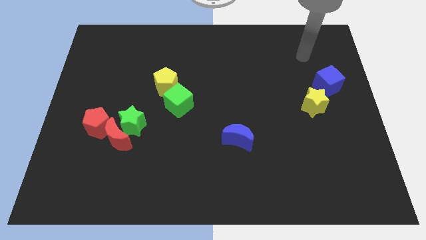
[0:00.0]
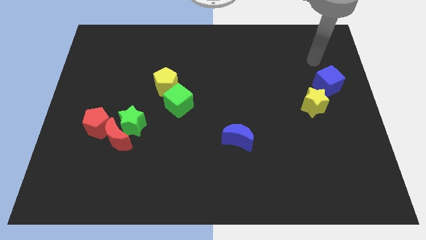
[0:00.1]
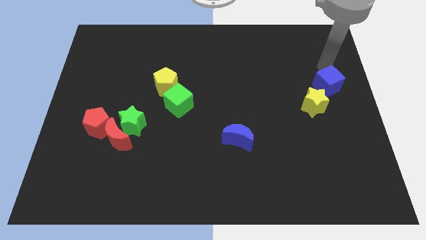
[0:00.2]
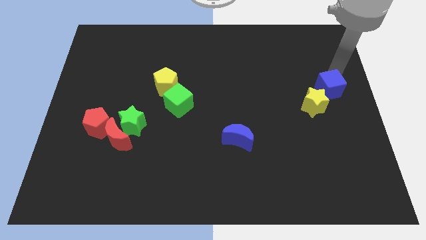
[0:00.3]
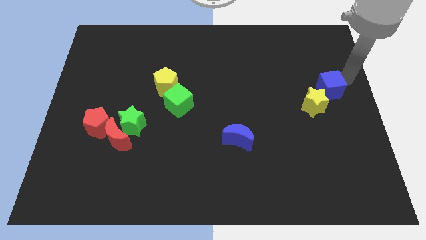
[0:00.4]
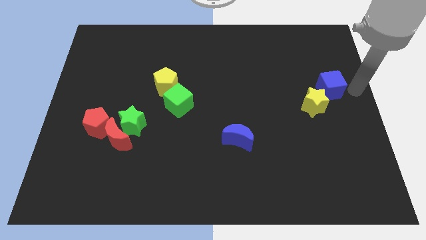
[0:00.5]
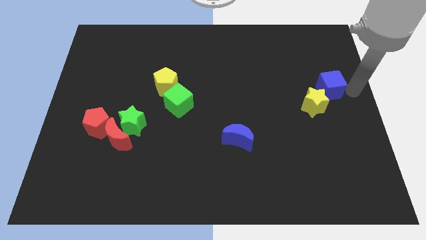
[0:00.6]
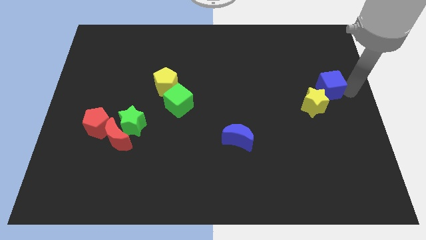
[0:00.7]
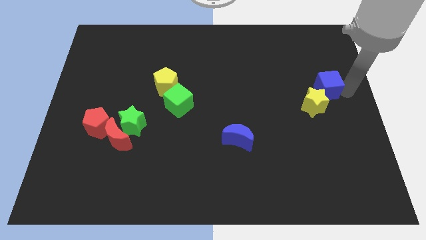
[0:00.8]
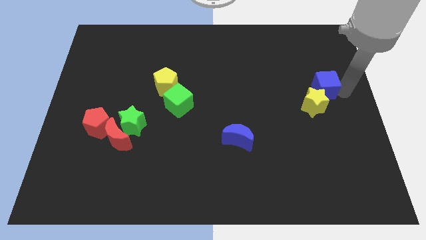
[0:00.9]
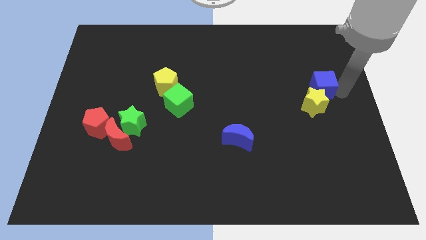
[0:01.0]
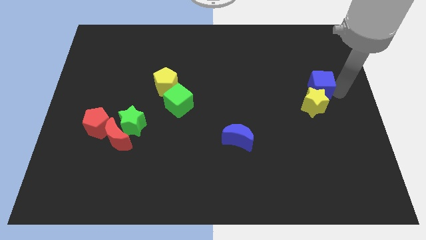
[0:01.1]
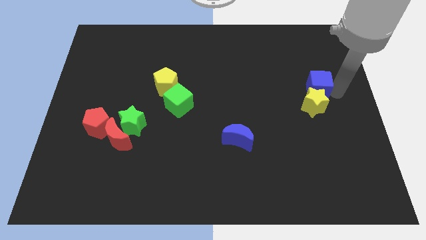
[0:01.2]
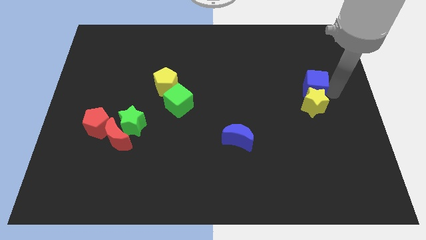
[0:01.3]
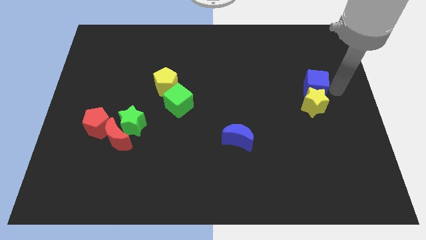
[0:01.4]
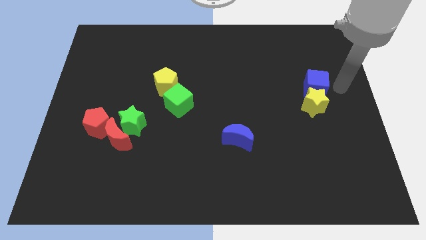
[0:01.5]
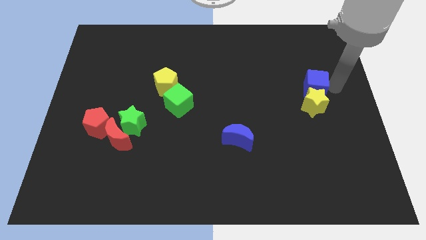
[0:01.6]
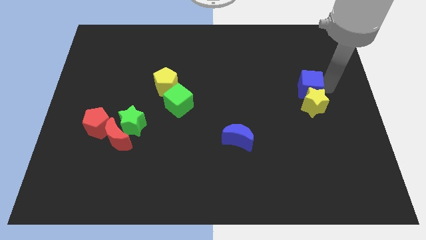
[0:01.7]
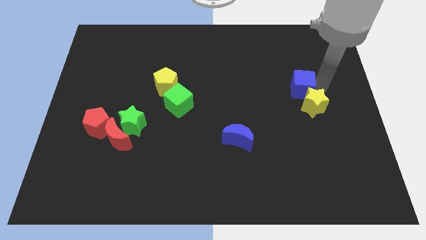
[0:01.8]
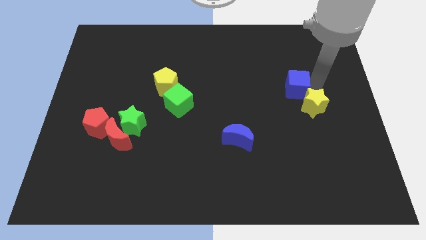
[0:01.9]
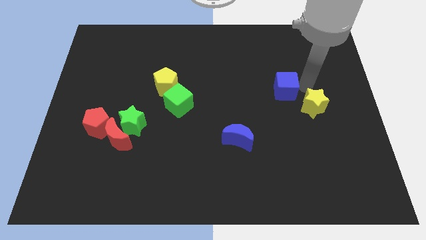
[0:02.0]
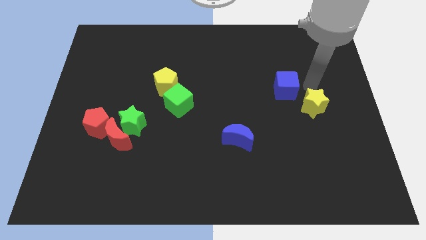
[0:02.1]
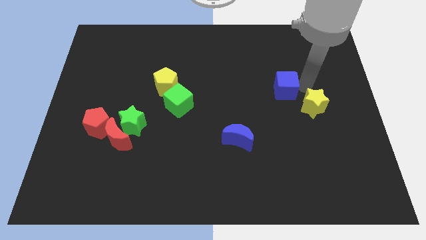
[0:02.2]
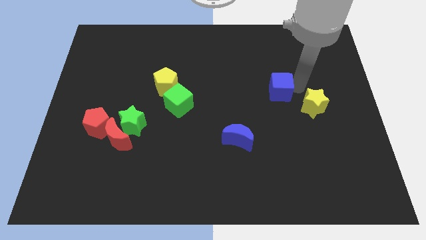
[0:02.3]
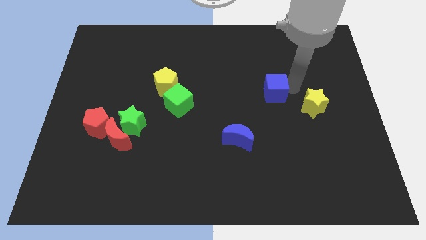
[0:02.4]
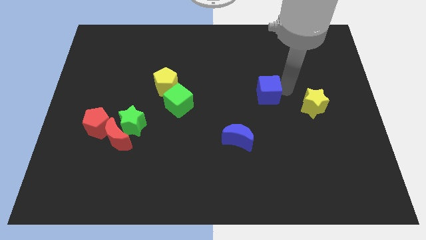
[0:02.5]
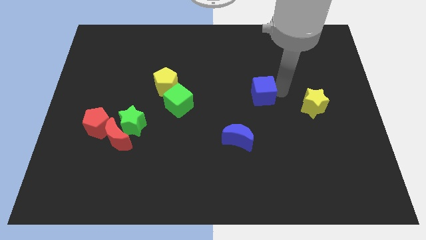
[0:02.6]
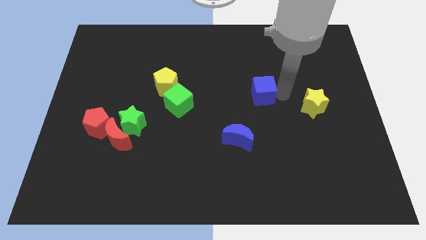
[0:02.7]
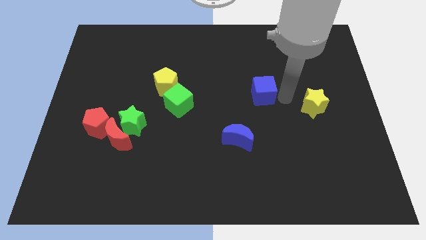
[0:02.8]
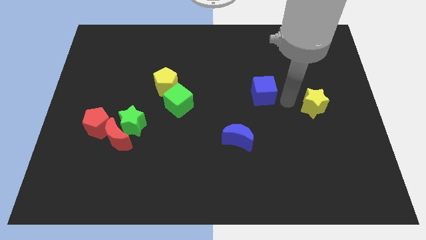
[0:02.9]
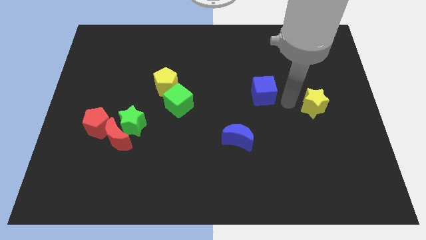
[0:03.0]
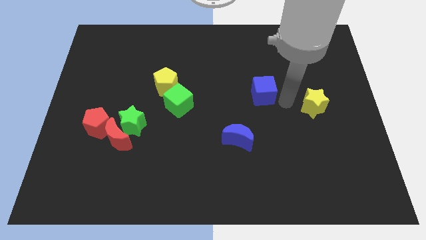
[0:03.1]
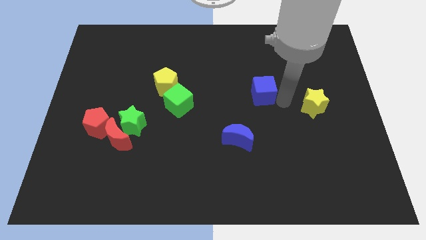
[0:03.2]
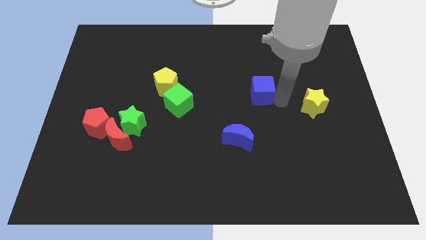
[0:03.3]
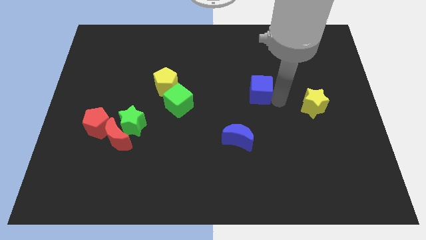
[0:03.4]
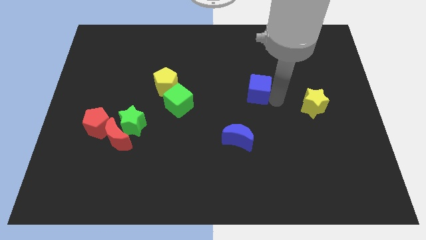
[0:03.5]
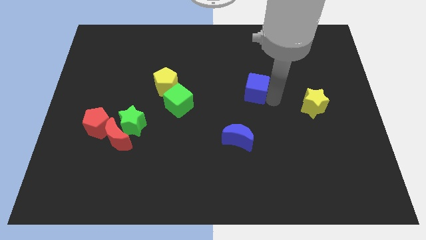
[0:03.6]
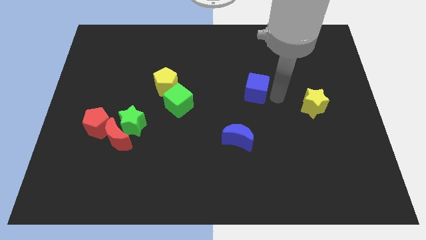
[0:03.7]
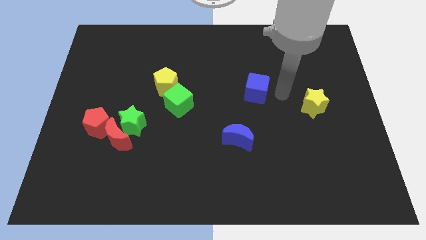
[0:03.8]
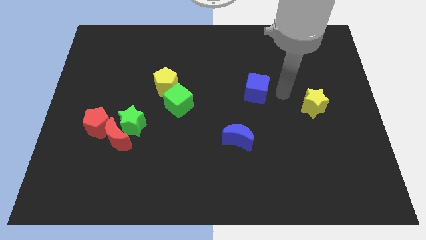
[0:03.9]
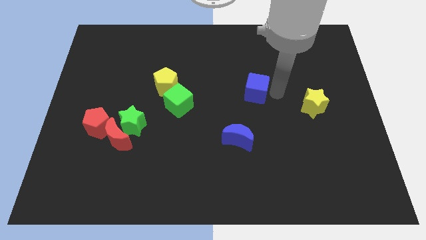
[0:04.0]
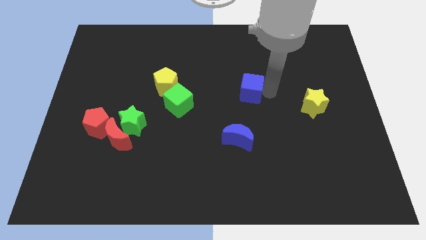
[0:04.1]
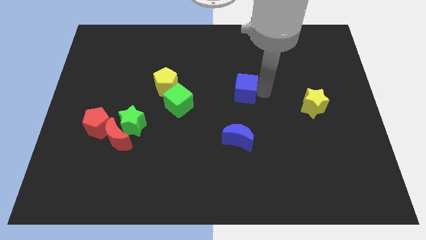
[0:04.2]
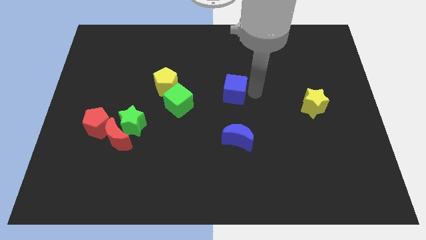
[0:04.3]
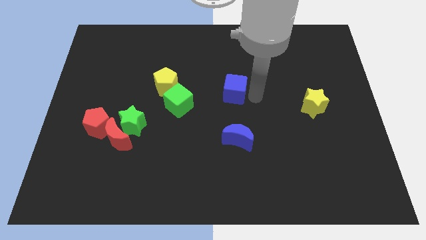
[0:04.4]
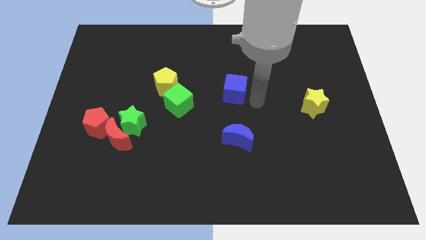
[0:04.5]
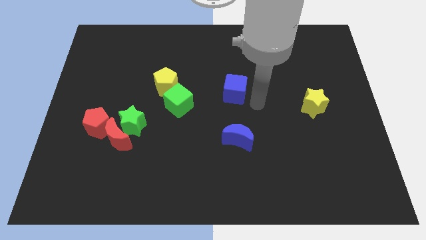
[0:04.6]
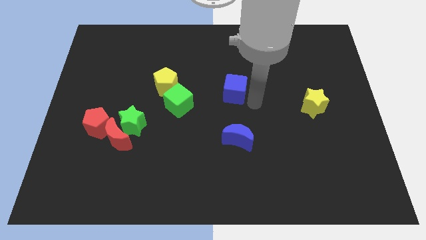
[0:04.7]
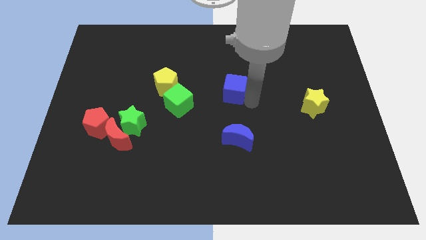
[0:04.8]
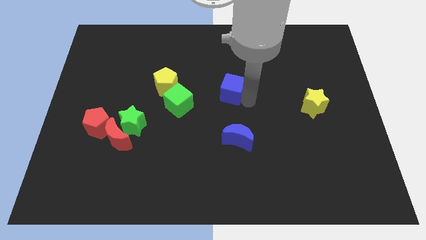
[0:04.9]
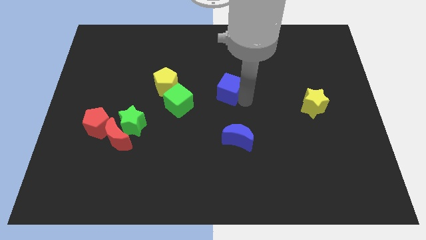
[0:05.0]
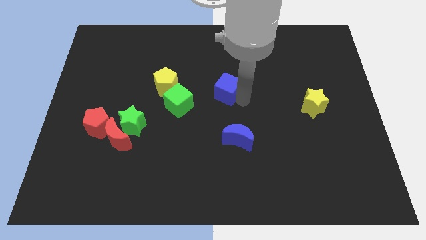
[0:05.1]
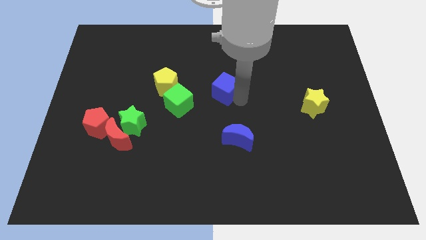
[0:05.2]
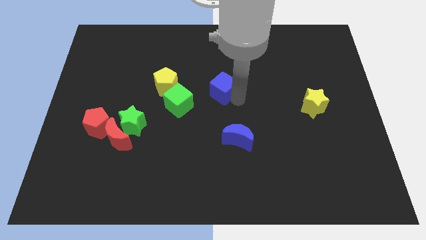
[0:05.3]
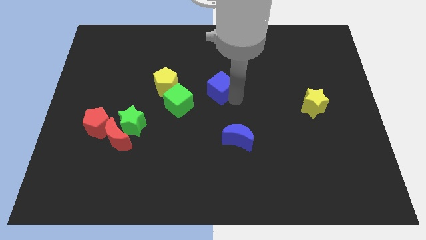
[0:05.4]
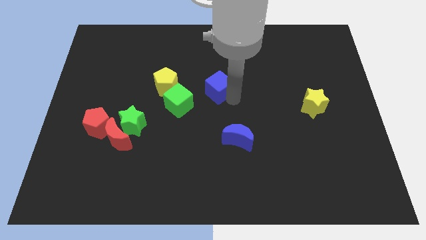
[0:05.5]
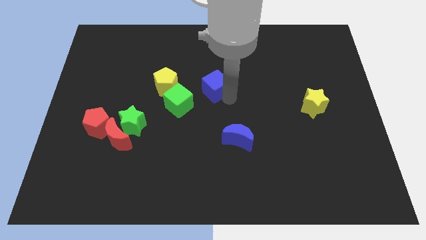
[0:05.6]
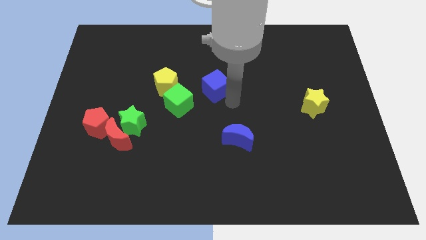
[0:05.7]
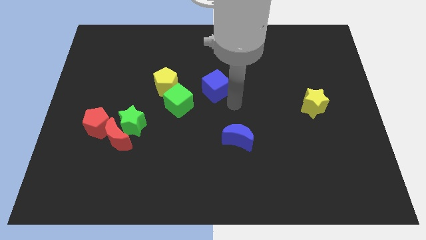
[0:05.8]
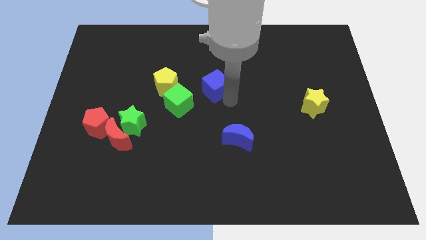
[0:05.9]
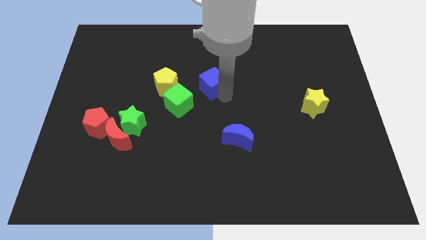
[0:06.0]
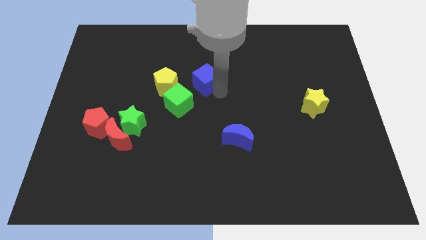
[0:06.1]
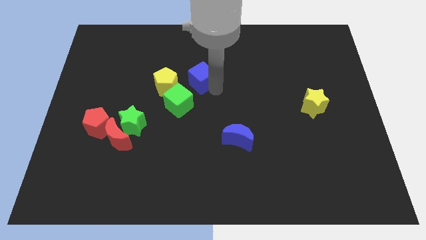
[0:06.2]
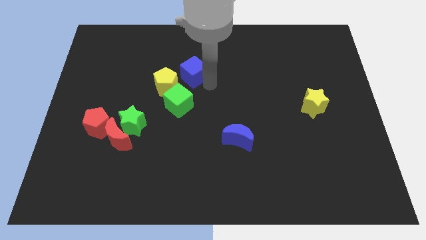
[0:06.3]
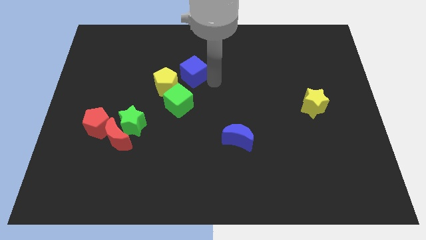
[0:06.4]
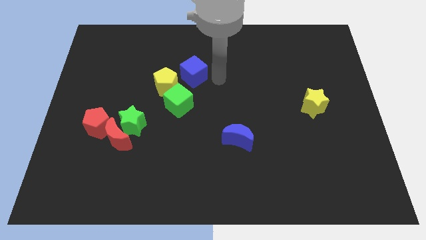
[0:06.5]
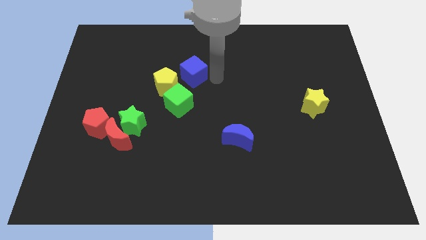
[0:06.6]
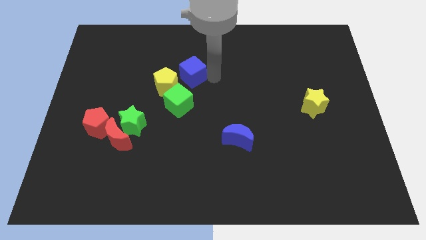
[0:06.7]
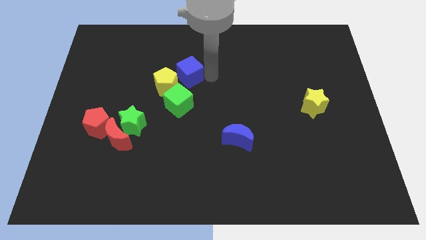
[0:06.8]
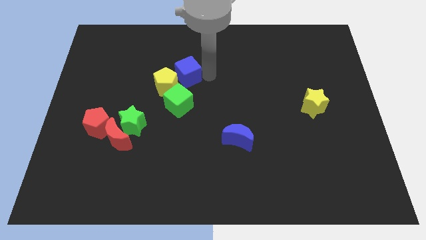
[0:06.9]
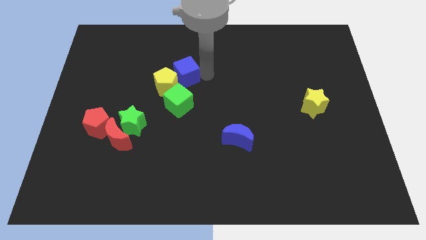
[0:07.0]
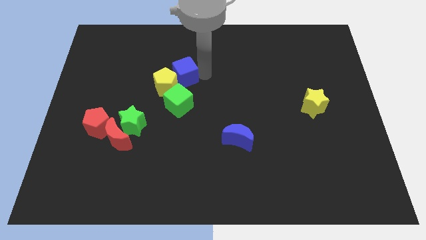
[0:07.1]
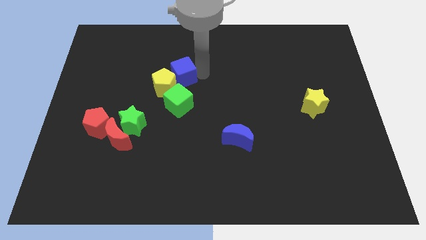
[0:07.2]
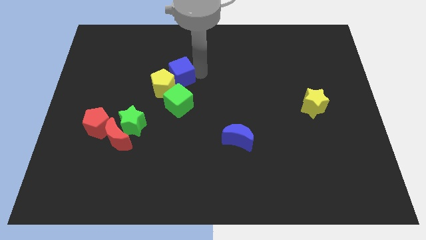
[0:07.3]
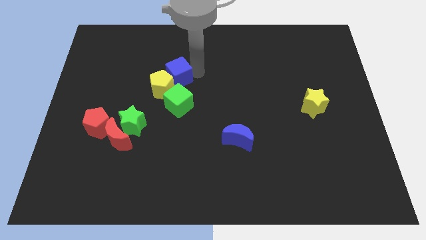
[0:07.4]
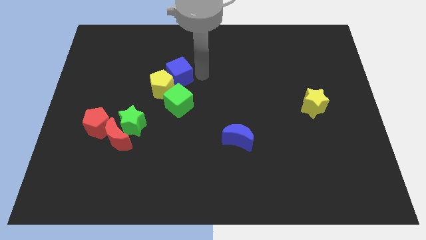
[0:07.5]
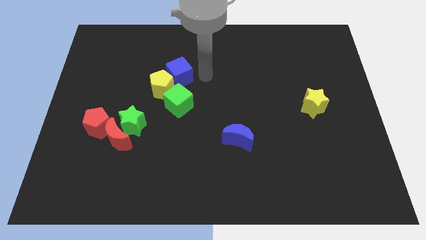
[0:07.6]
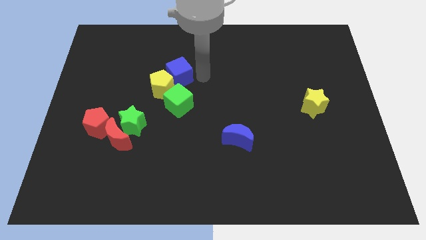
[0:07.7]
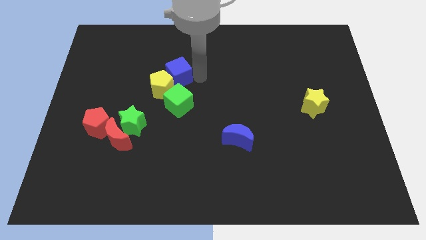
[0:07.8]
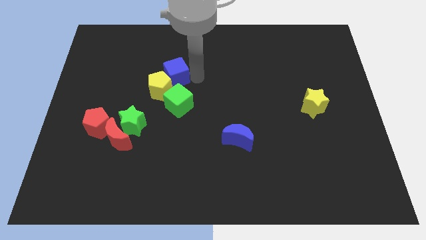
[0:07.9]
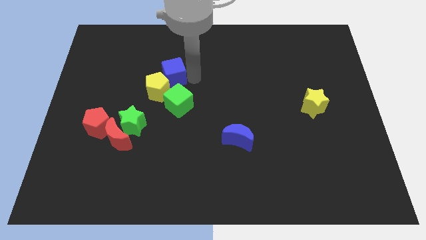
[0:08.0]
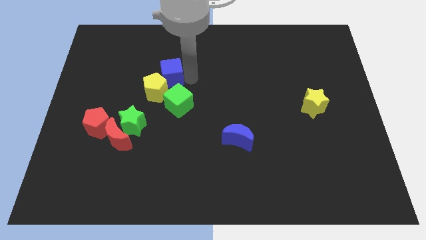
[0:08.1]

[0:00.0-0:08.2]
push the blue cube to the top left of the green cube
